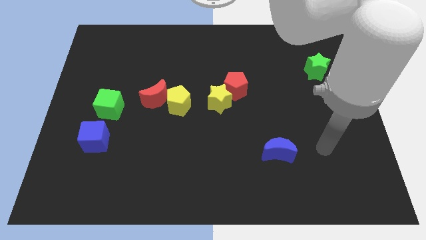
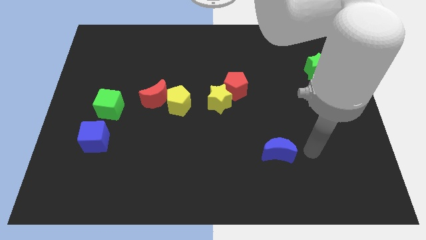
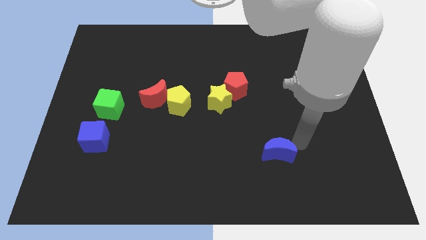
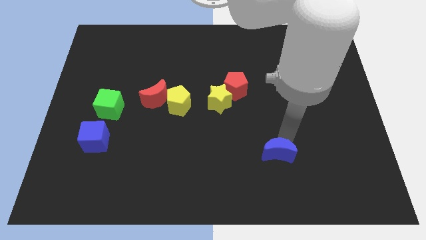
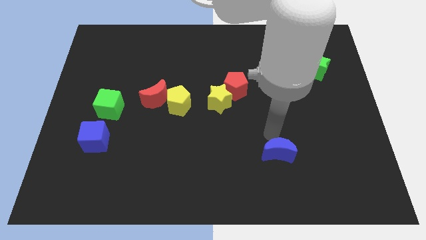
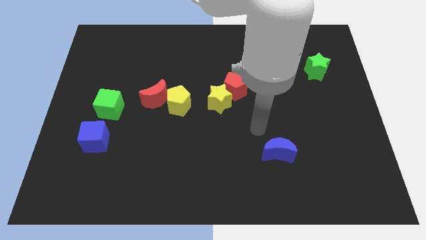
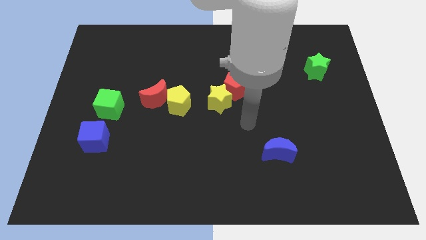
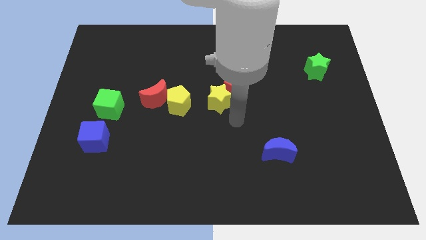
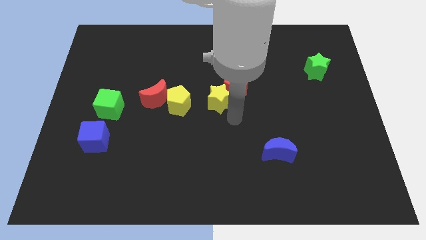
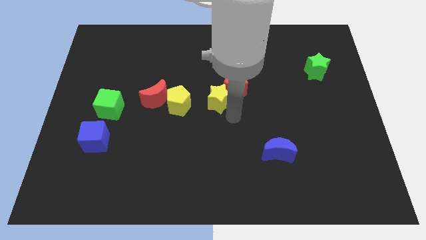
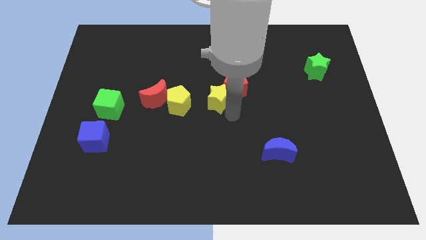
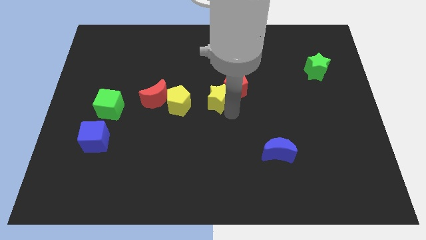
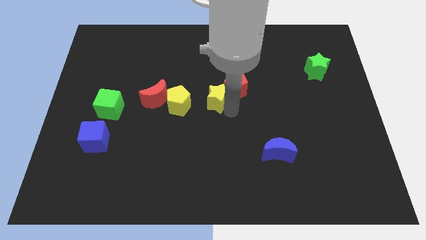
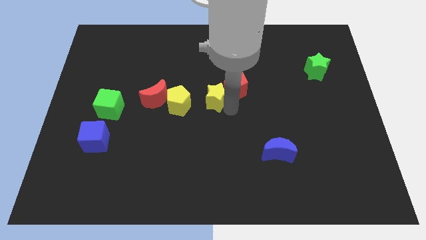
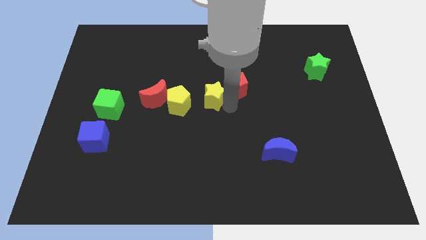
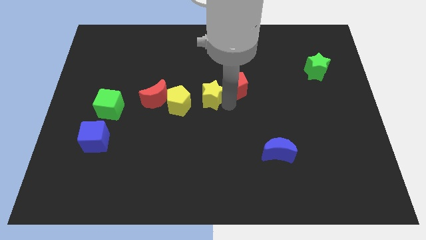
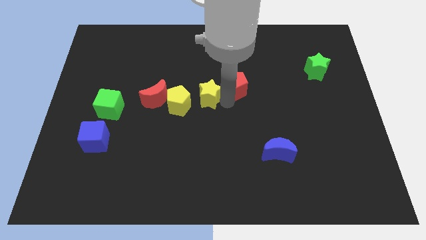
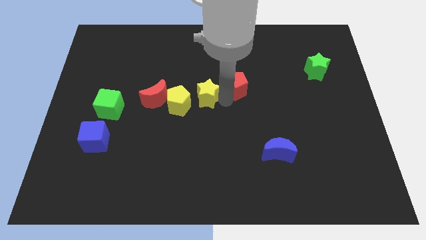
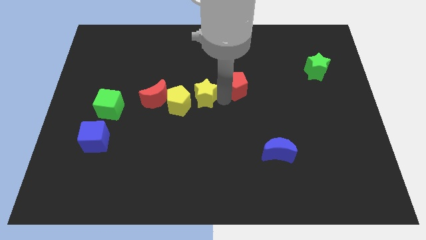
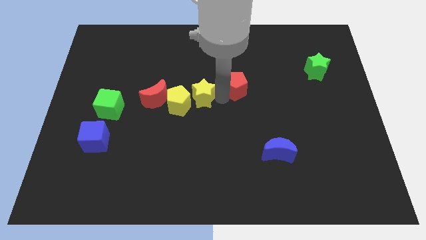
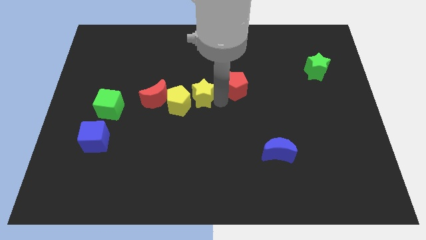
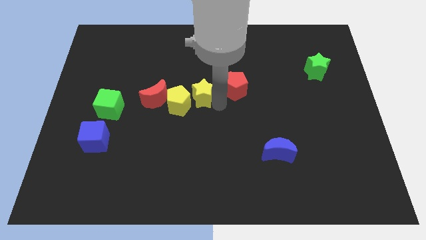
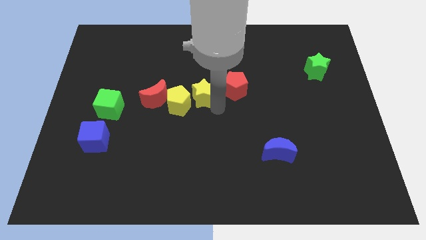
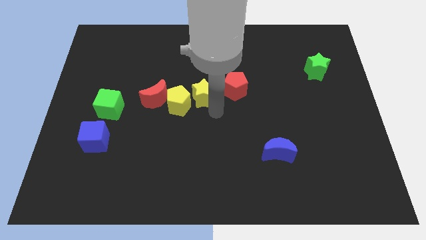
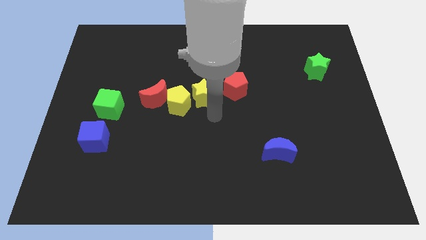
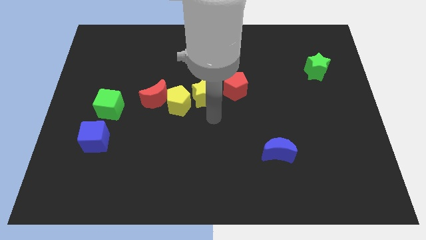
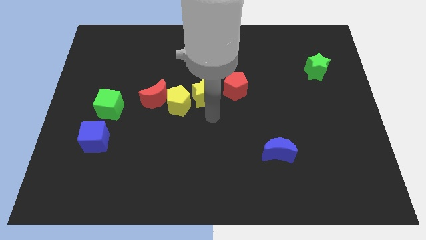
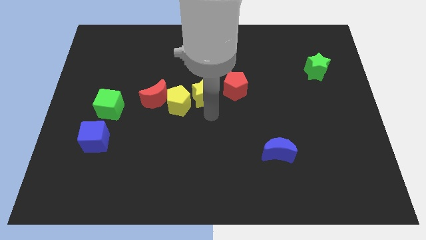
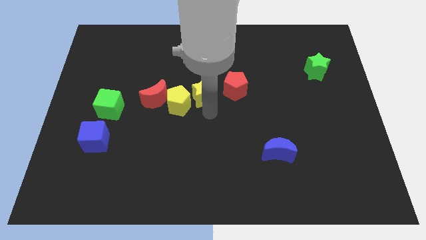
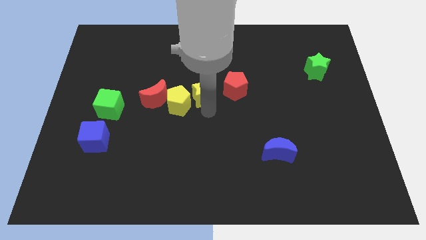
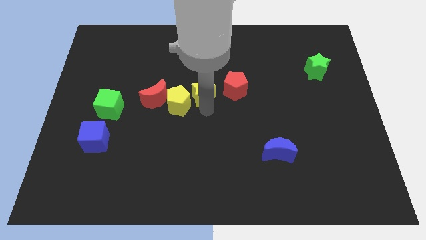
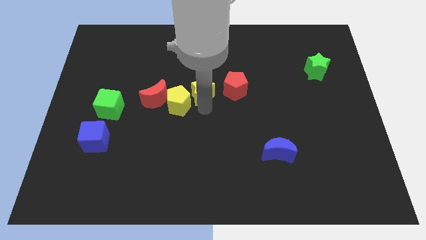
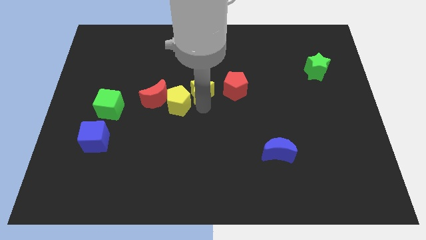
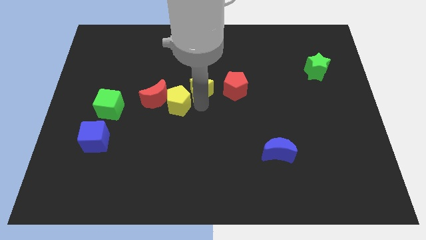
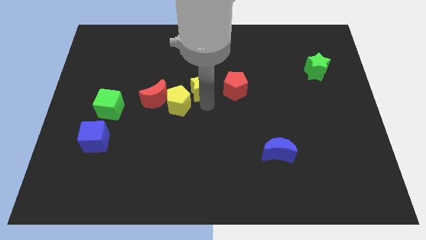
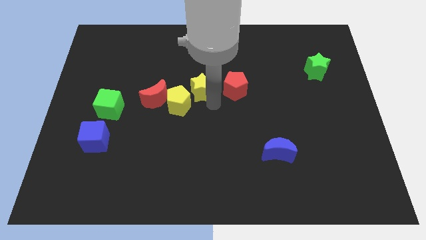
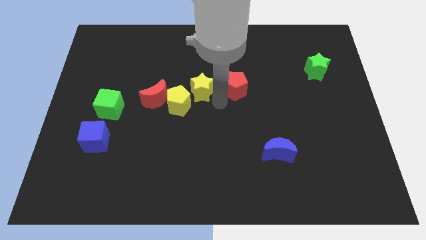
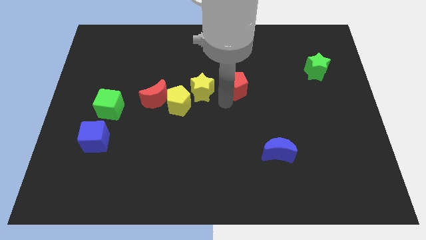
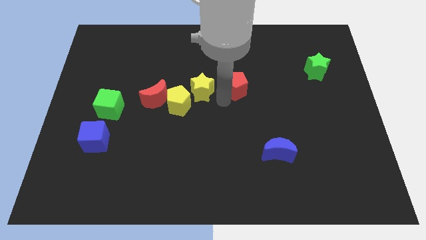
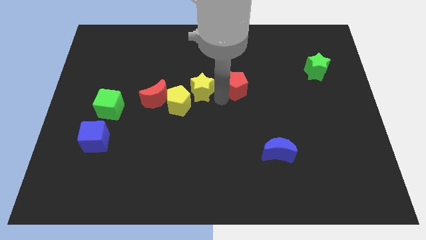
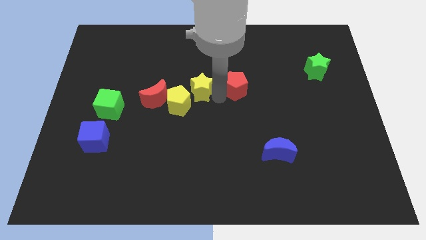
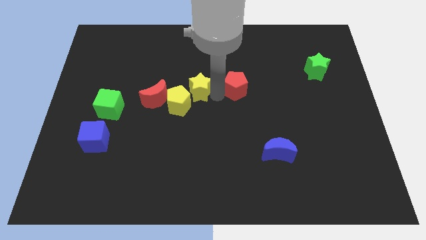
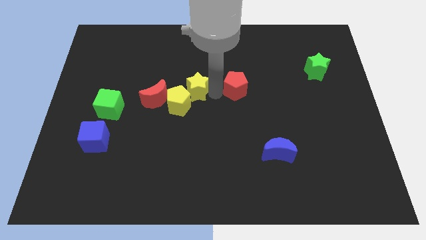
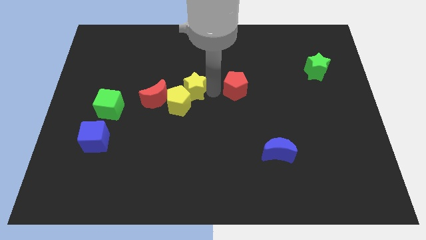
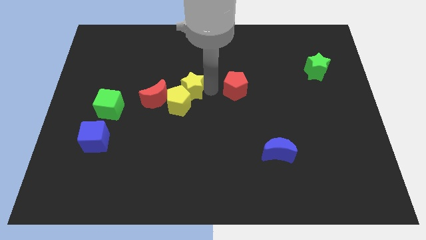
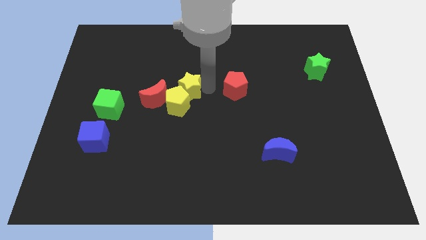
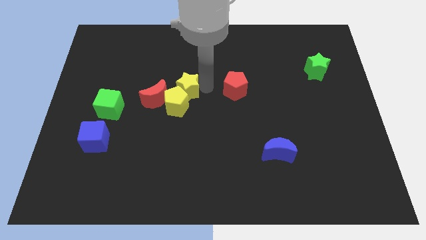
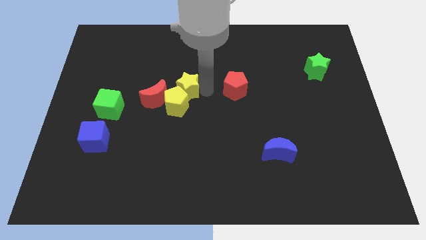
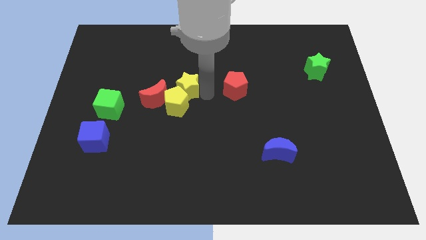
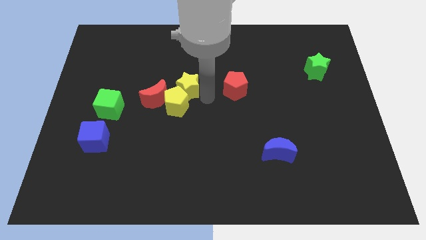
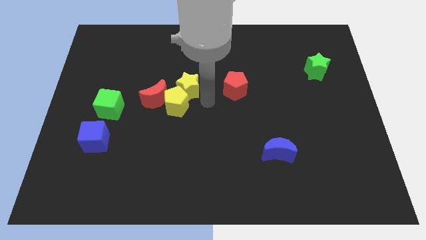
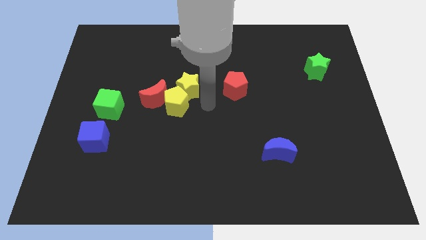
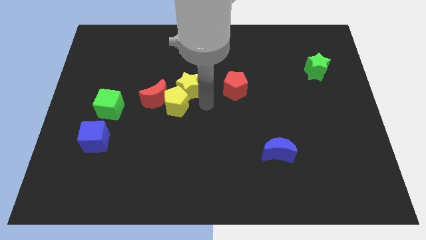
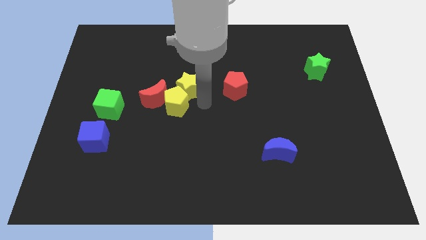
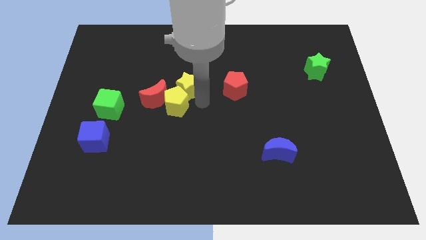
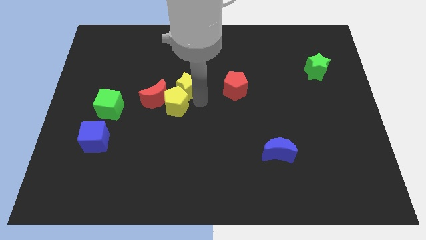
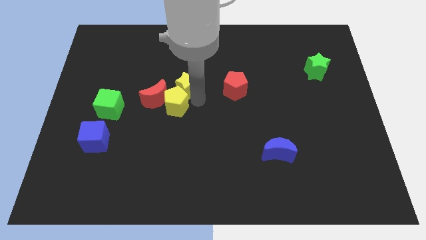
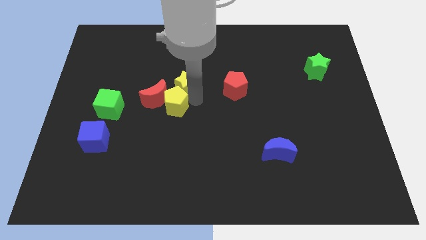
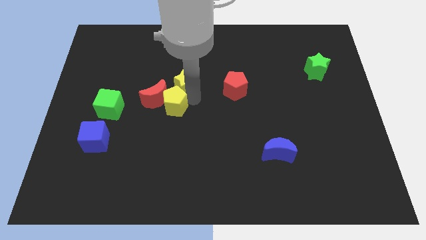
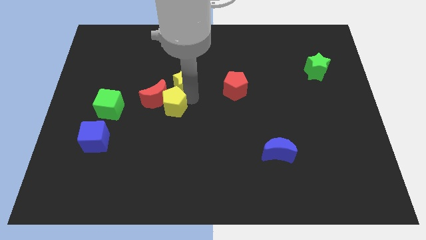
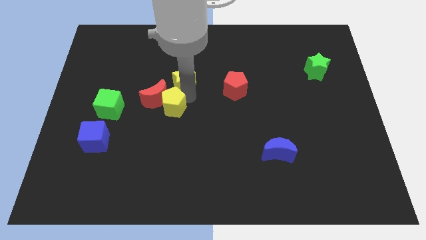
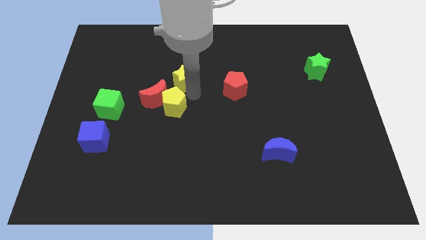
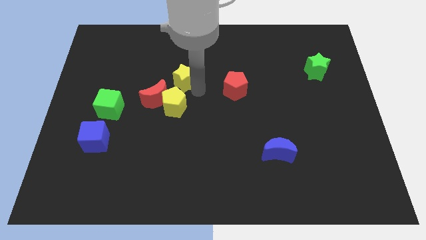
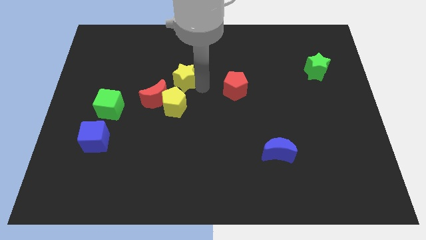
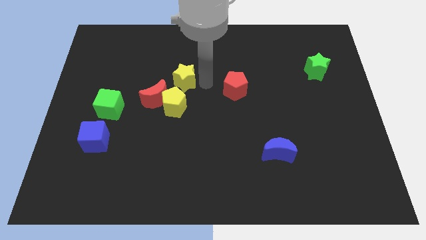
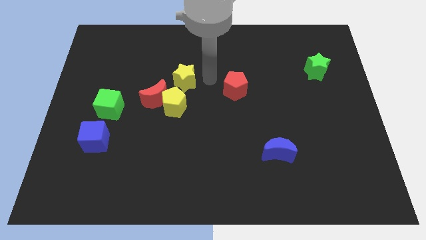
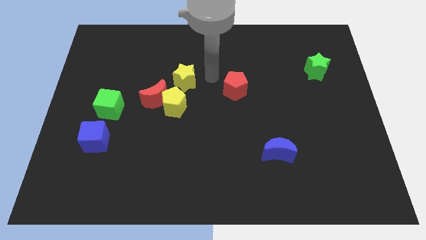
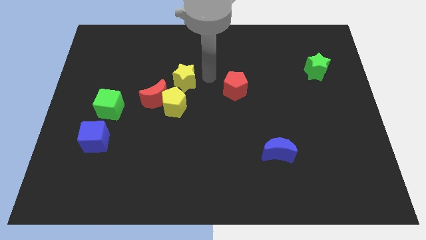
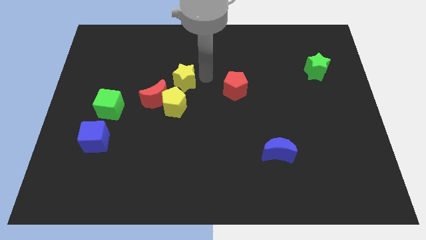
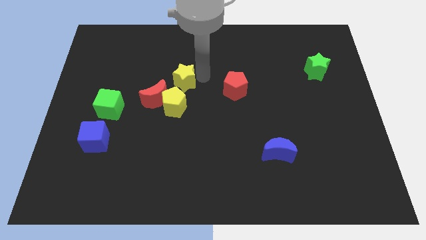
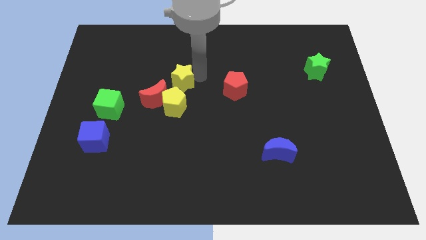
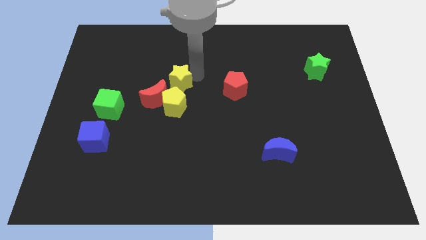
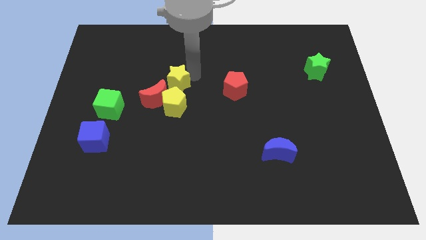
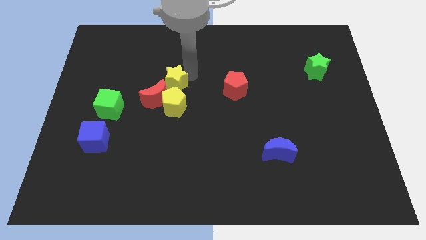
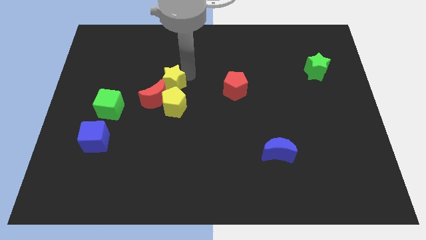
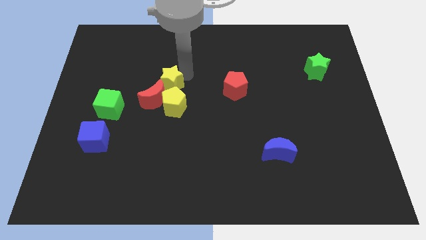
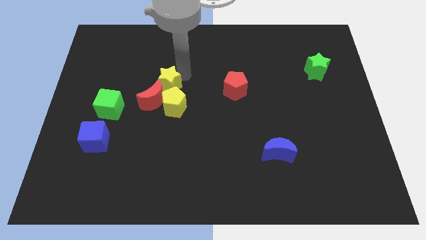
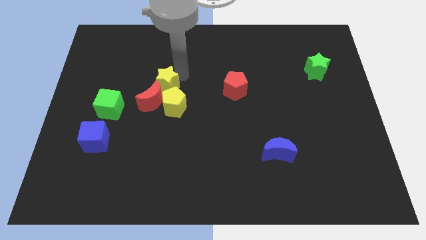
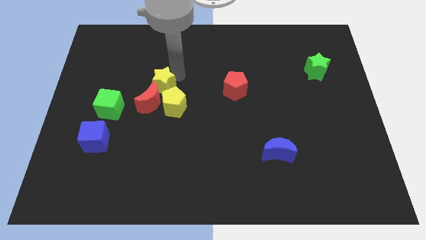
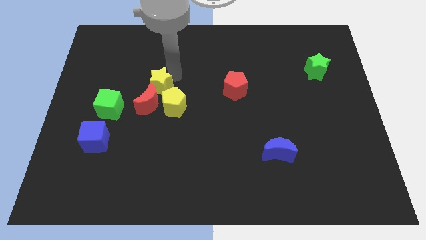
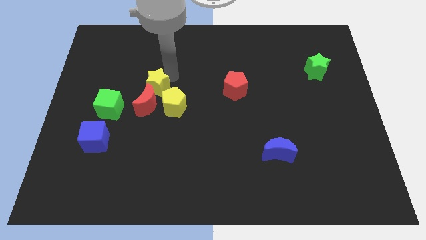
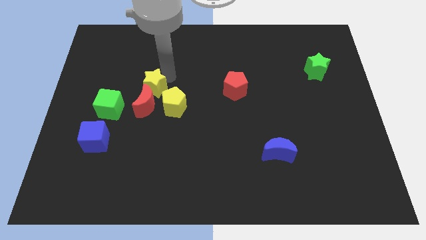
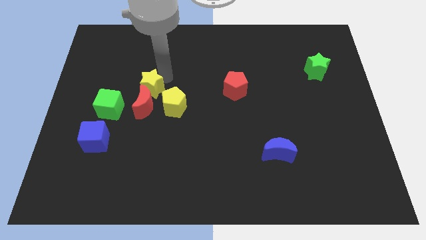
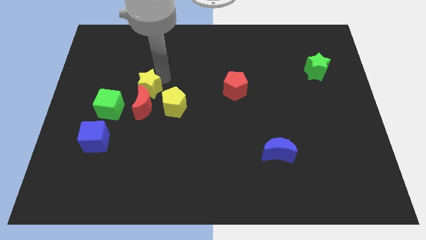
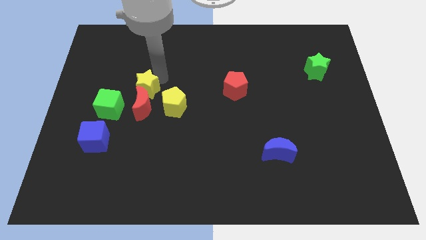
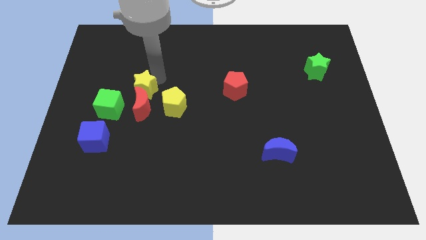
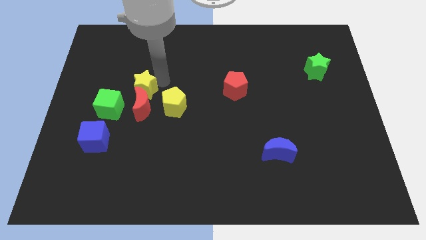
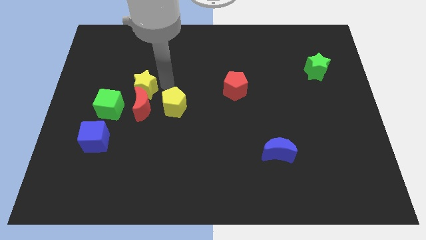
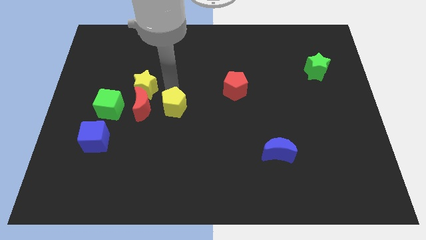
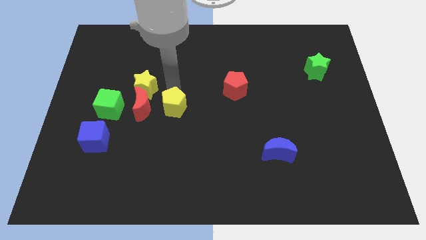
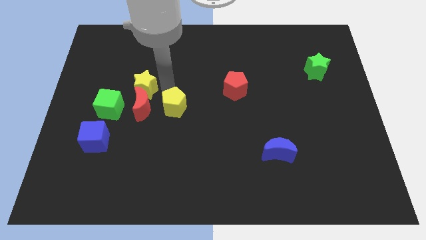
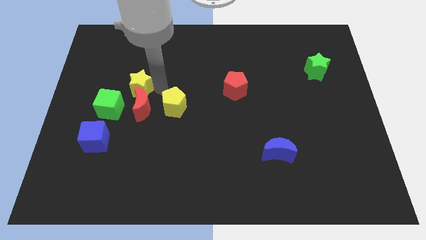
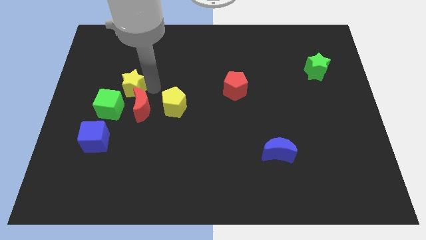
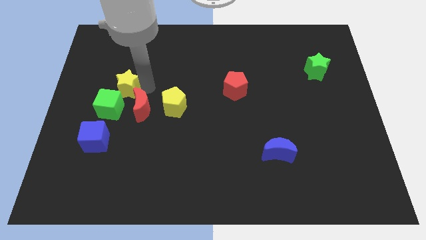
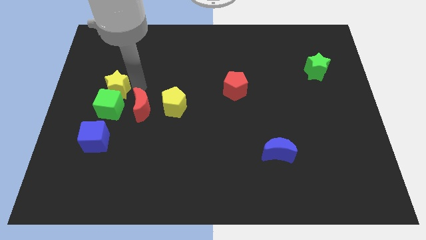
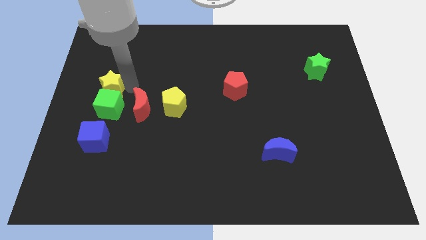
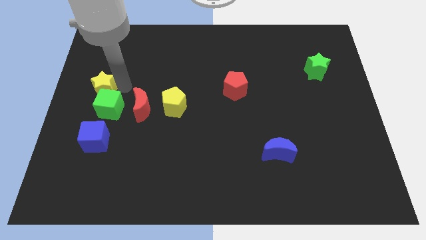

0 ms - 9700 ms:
slide the yellow star to the center left
